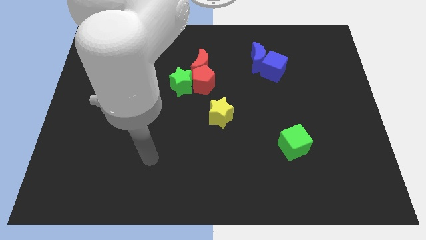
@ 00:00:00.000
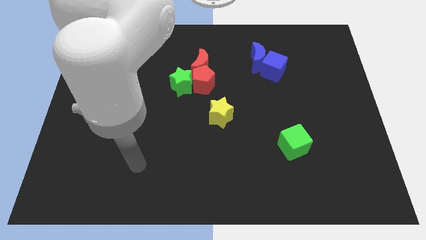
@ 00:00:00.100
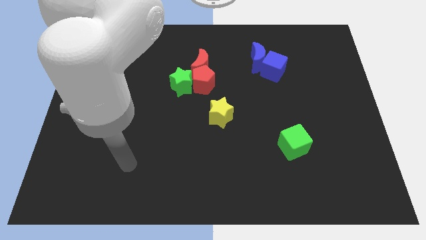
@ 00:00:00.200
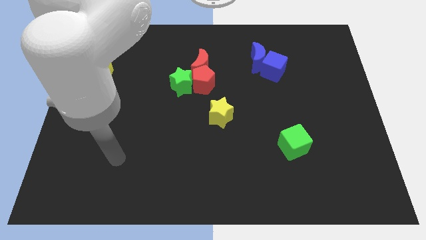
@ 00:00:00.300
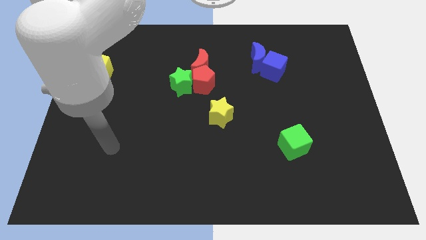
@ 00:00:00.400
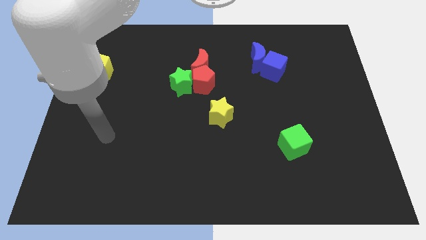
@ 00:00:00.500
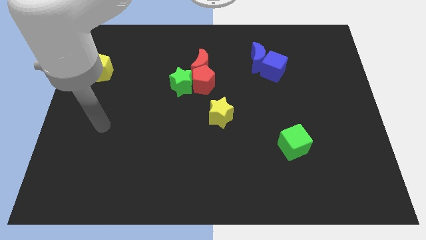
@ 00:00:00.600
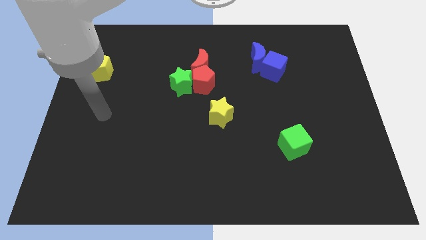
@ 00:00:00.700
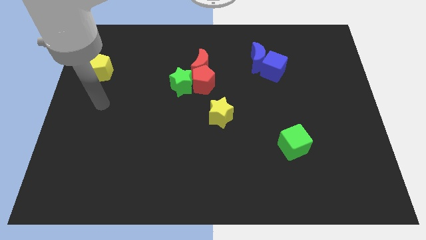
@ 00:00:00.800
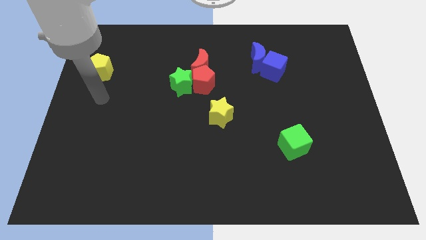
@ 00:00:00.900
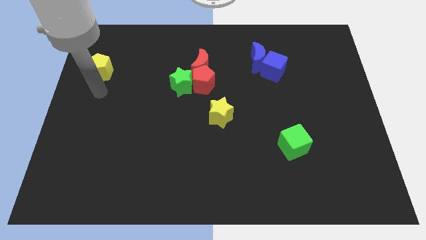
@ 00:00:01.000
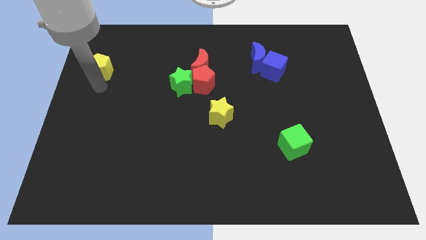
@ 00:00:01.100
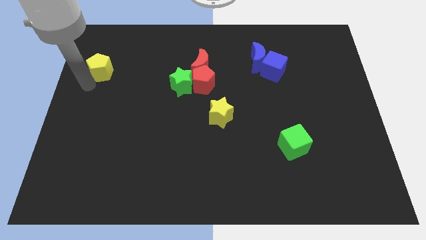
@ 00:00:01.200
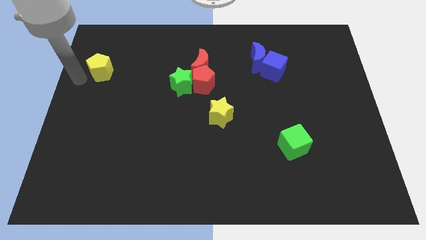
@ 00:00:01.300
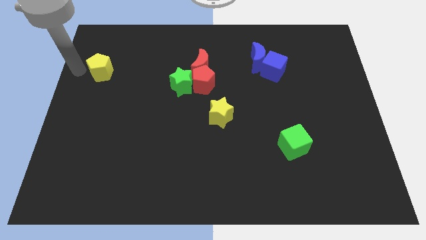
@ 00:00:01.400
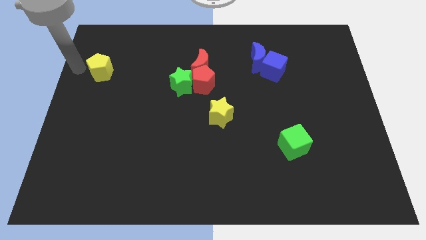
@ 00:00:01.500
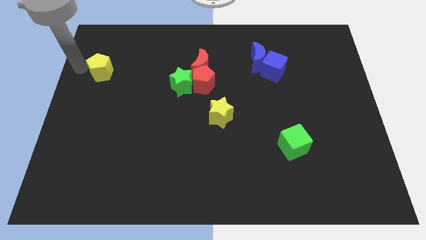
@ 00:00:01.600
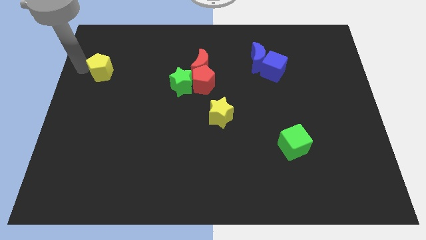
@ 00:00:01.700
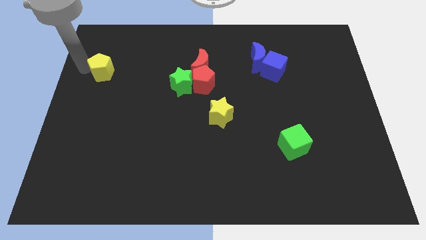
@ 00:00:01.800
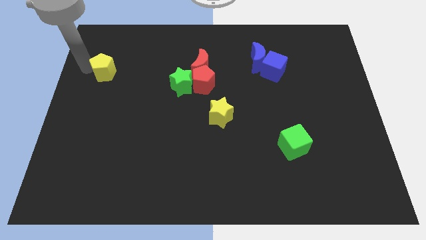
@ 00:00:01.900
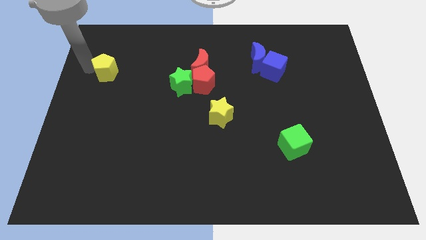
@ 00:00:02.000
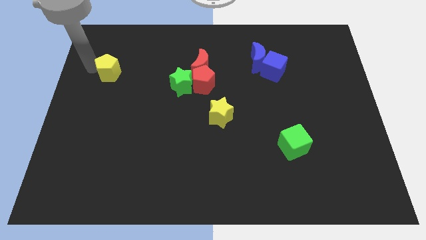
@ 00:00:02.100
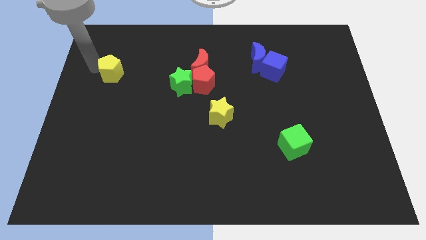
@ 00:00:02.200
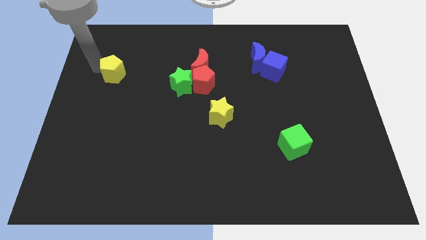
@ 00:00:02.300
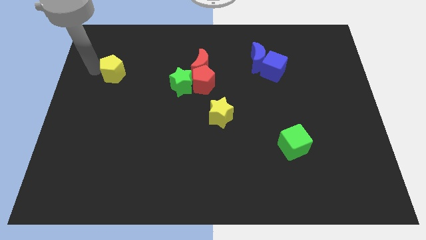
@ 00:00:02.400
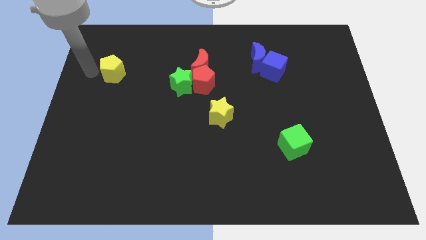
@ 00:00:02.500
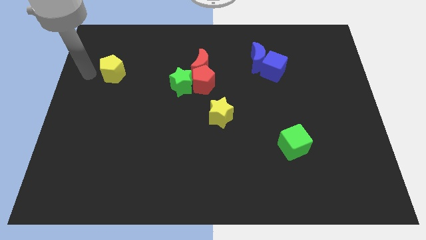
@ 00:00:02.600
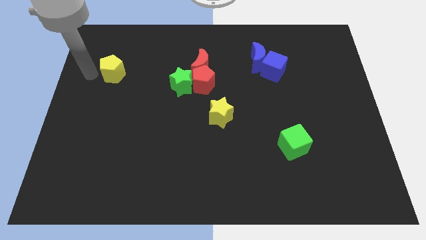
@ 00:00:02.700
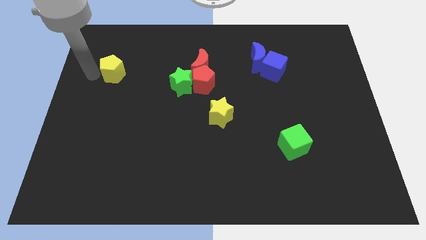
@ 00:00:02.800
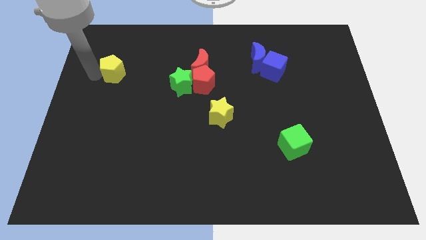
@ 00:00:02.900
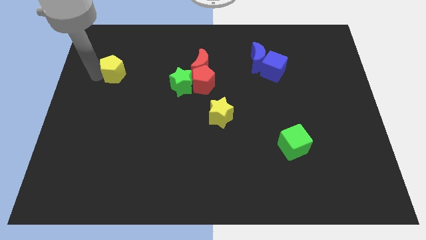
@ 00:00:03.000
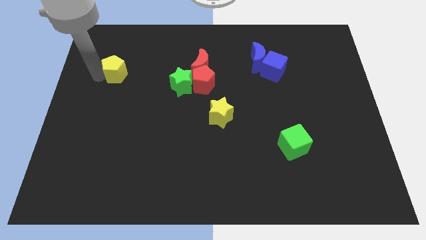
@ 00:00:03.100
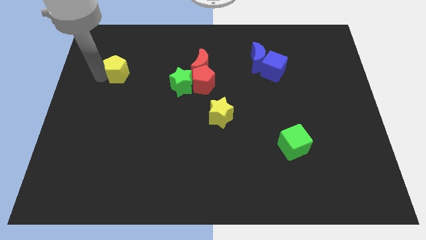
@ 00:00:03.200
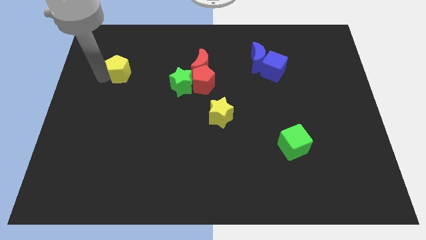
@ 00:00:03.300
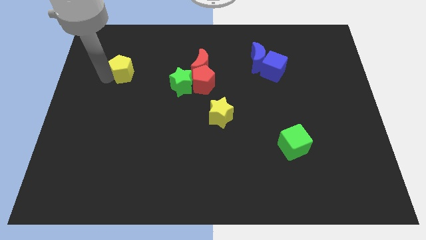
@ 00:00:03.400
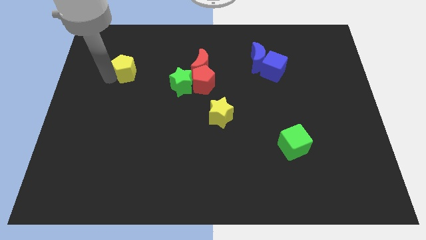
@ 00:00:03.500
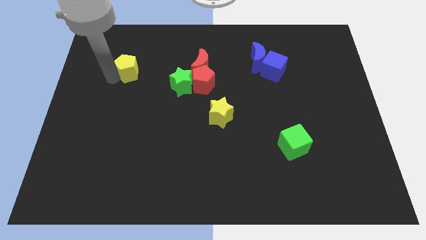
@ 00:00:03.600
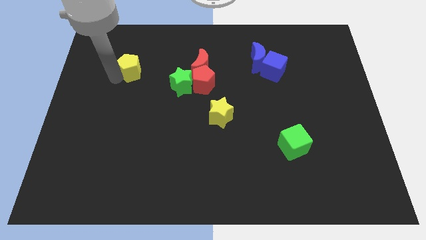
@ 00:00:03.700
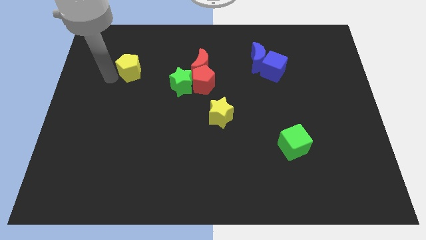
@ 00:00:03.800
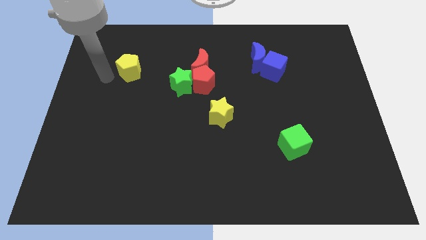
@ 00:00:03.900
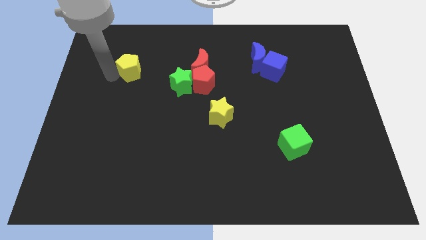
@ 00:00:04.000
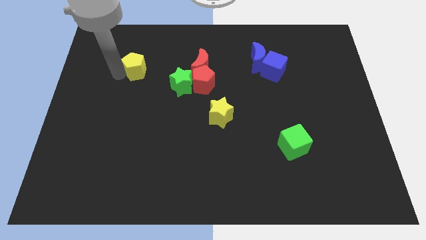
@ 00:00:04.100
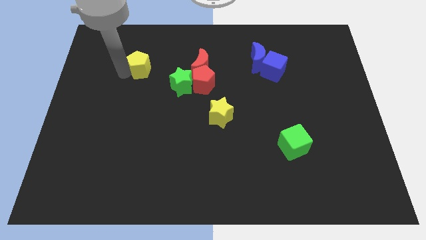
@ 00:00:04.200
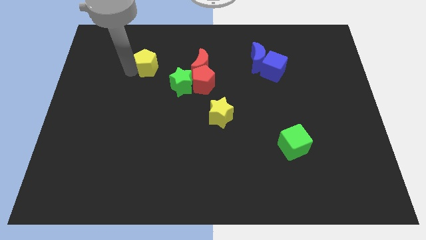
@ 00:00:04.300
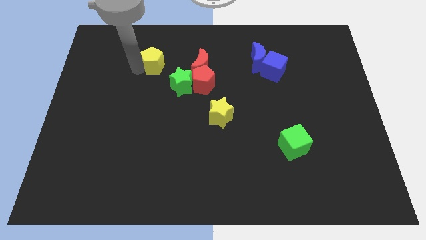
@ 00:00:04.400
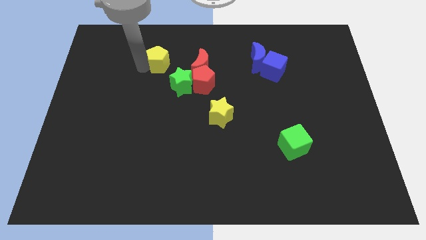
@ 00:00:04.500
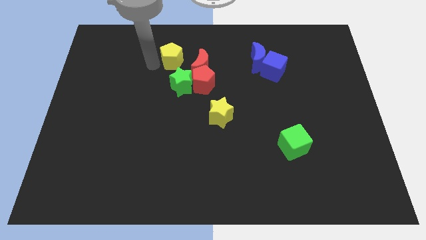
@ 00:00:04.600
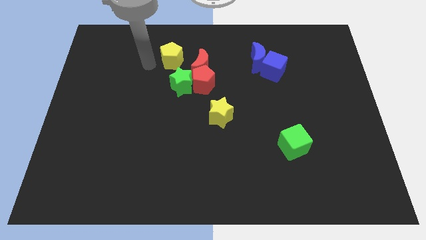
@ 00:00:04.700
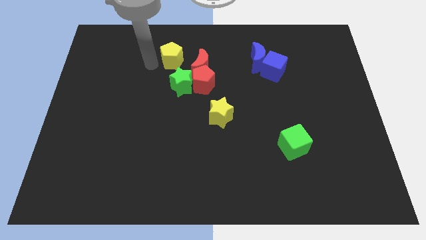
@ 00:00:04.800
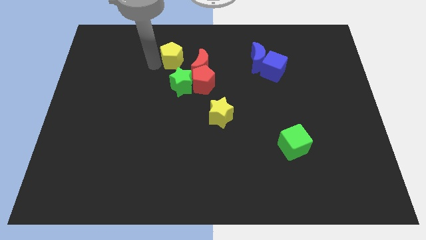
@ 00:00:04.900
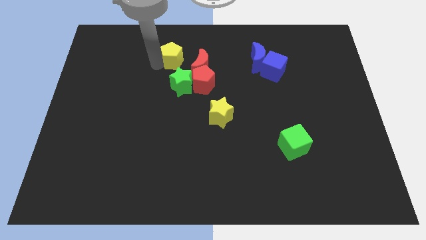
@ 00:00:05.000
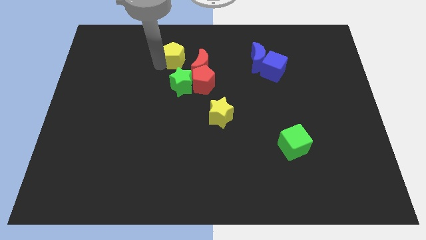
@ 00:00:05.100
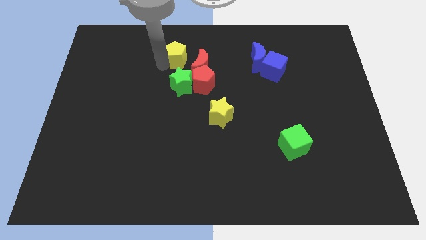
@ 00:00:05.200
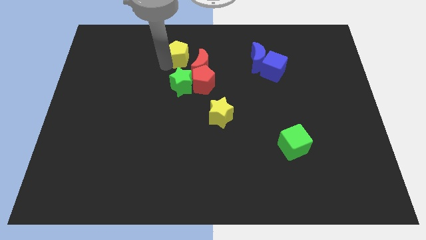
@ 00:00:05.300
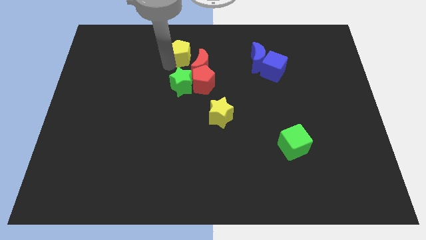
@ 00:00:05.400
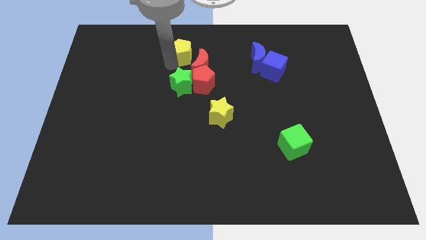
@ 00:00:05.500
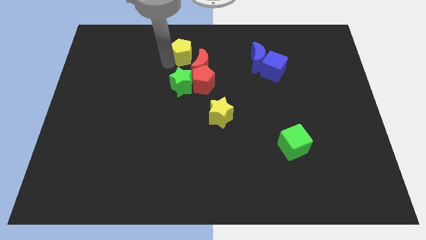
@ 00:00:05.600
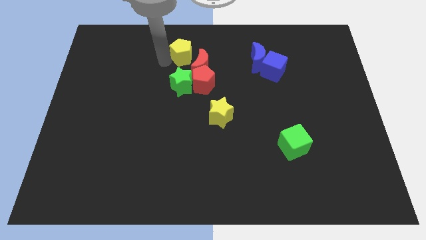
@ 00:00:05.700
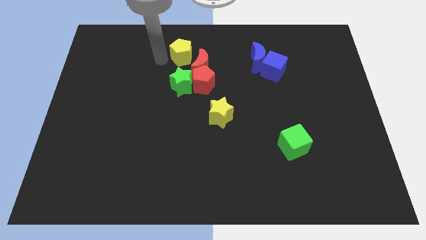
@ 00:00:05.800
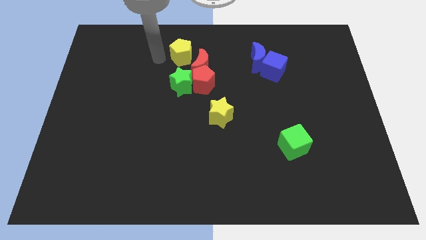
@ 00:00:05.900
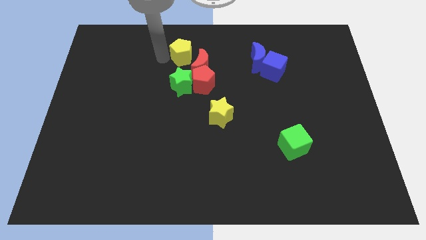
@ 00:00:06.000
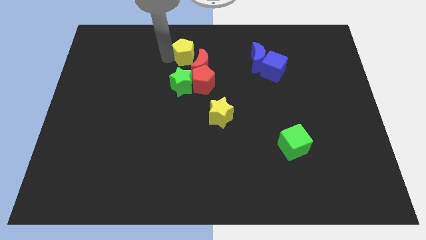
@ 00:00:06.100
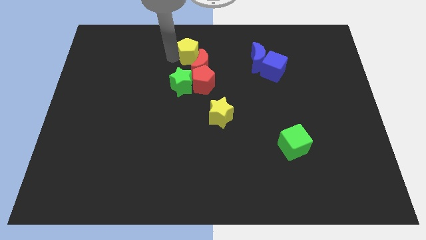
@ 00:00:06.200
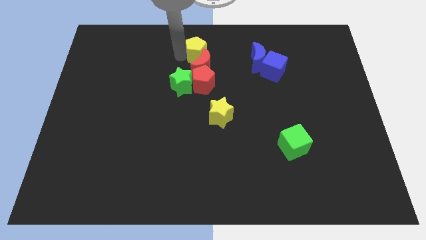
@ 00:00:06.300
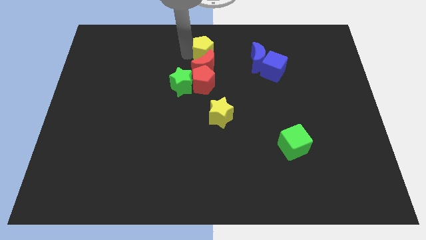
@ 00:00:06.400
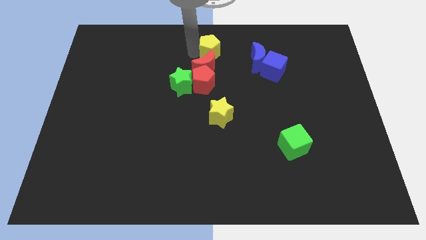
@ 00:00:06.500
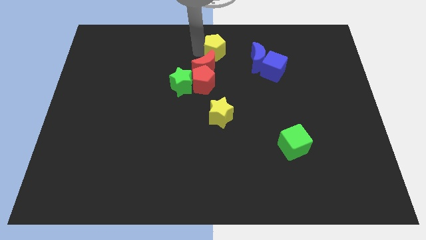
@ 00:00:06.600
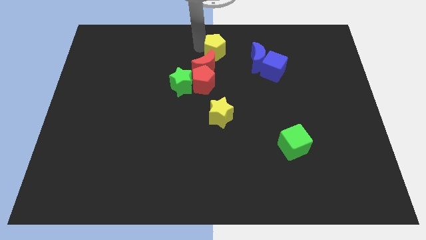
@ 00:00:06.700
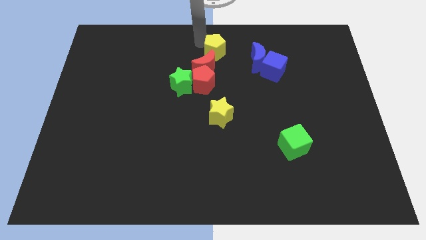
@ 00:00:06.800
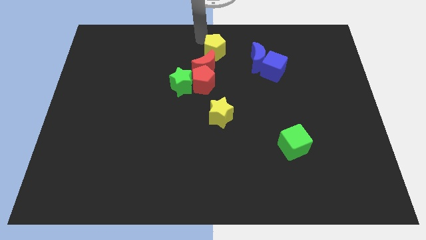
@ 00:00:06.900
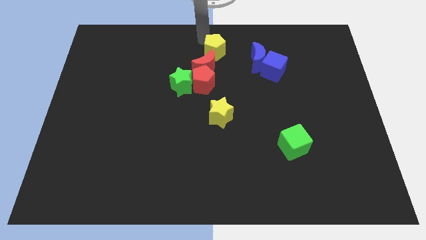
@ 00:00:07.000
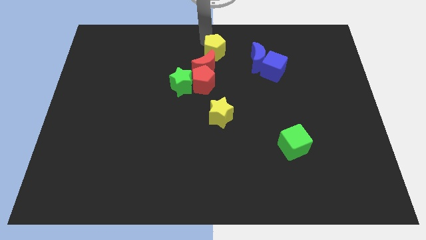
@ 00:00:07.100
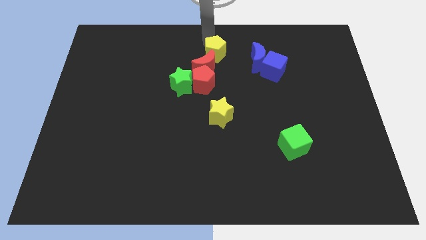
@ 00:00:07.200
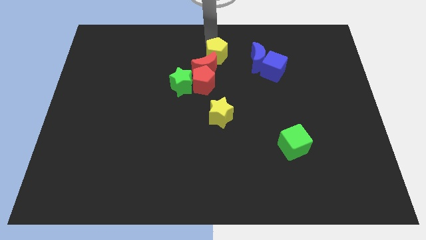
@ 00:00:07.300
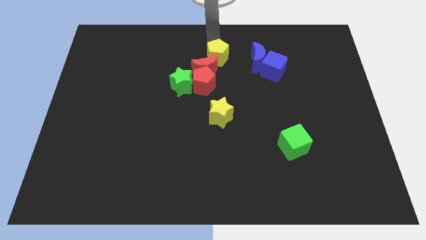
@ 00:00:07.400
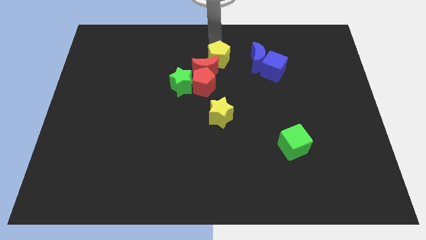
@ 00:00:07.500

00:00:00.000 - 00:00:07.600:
slide the yellow pentagon just left of the blue cube
